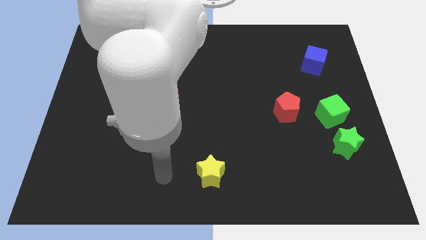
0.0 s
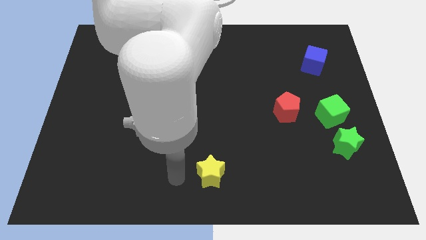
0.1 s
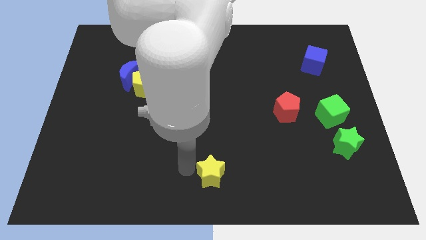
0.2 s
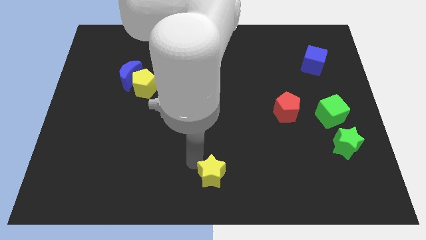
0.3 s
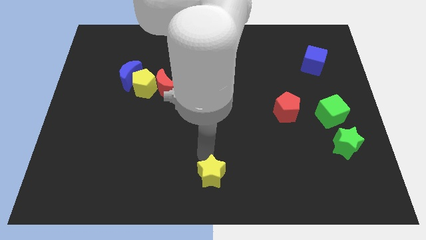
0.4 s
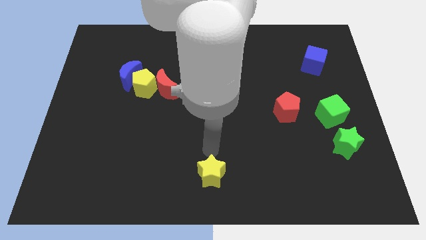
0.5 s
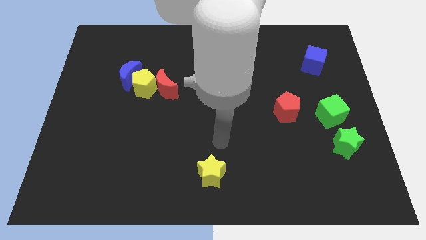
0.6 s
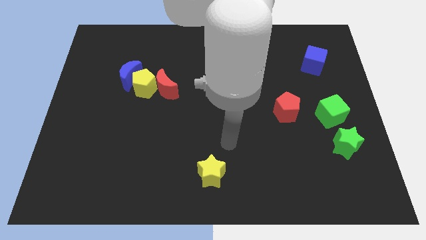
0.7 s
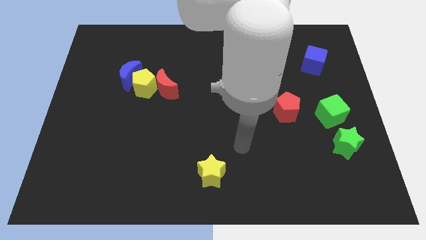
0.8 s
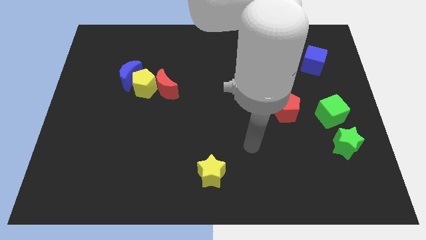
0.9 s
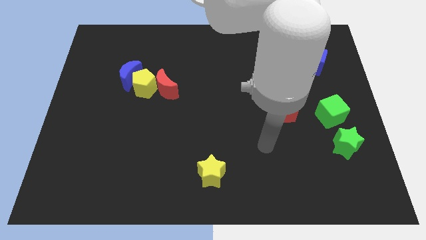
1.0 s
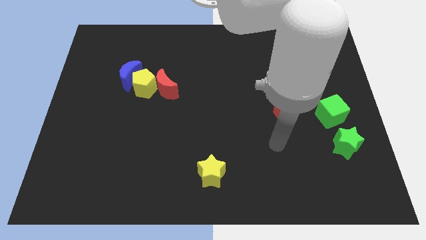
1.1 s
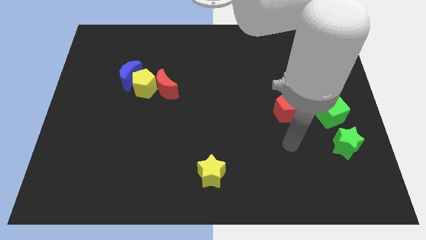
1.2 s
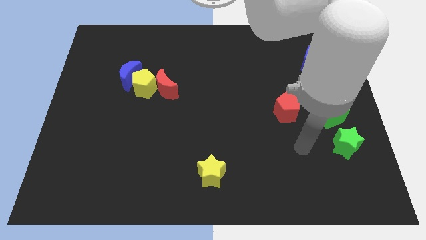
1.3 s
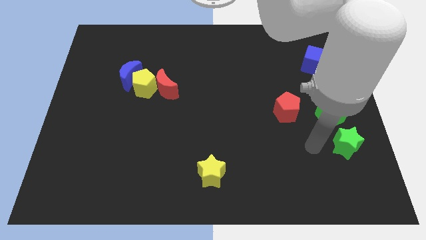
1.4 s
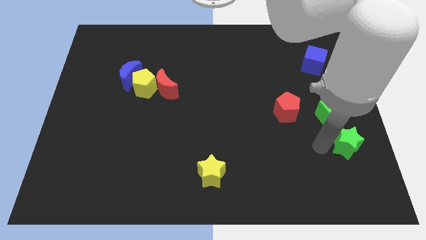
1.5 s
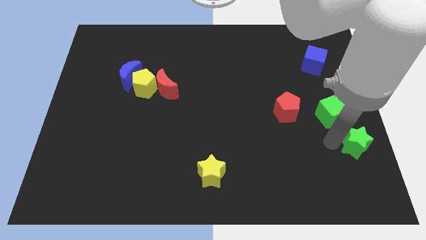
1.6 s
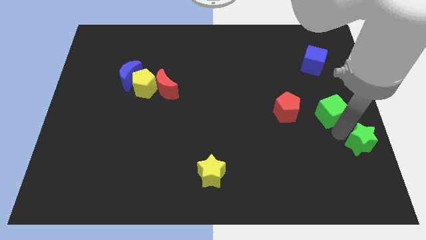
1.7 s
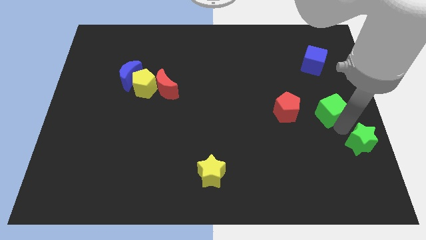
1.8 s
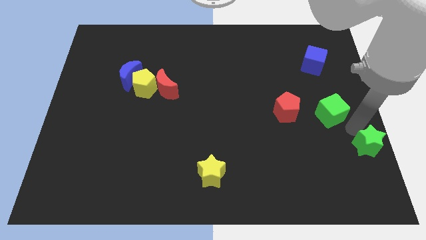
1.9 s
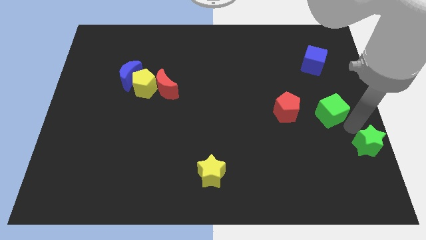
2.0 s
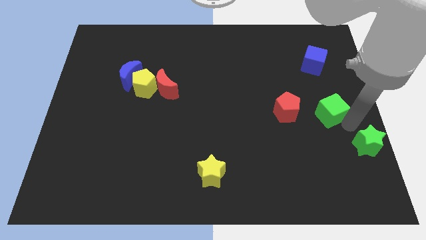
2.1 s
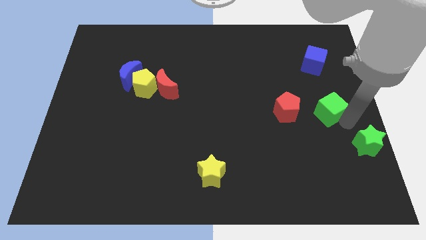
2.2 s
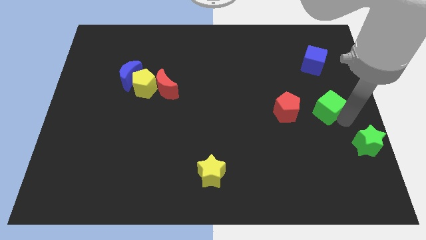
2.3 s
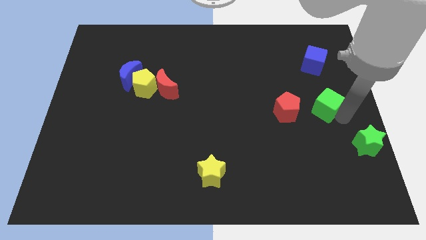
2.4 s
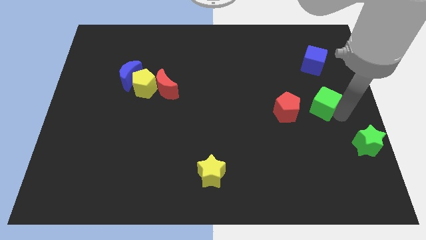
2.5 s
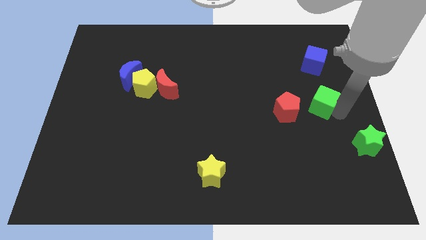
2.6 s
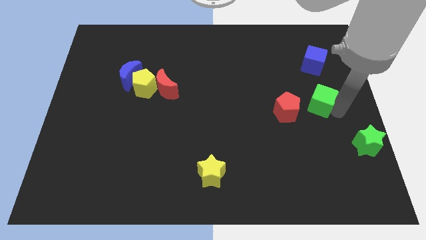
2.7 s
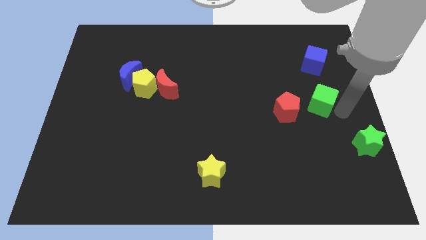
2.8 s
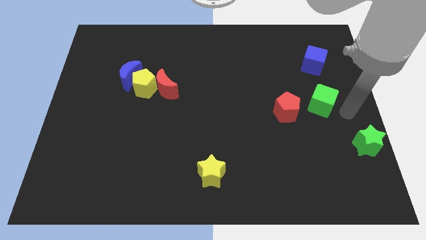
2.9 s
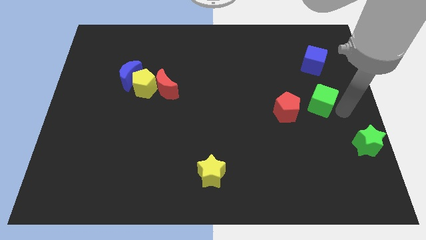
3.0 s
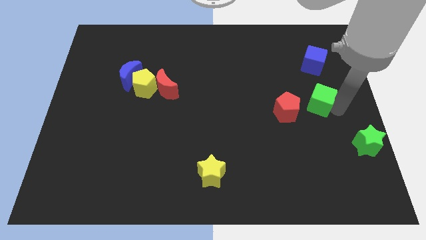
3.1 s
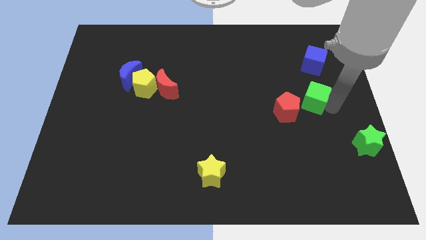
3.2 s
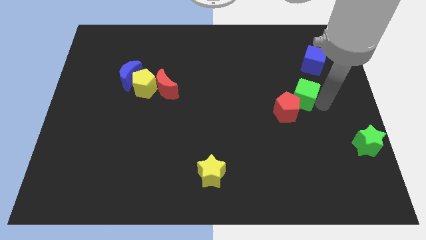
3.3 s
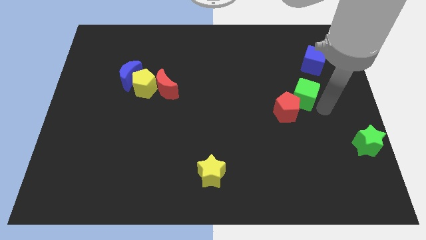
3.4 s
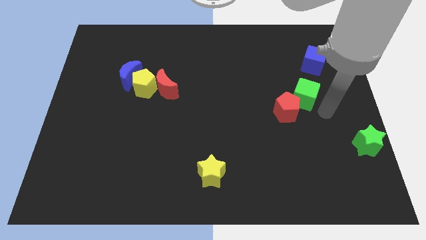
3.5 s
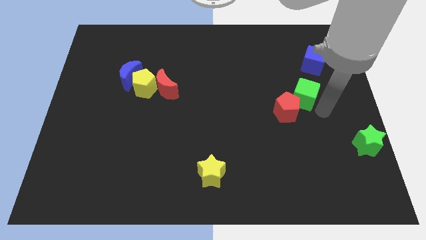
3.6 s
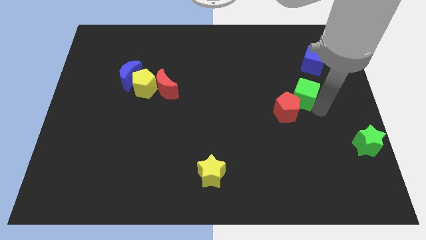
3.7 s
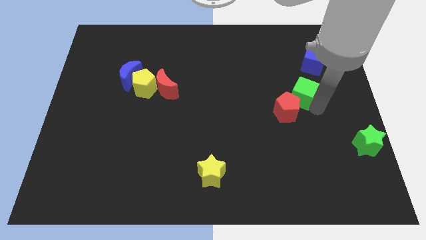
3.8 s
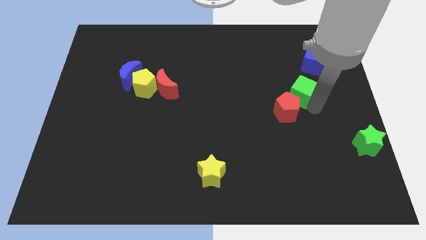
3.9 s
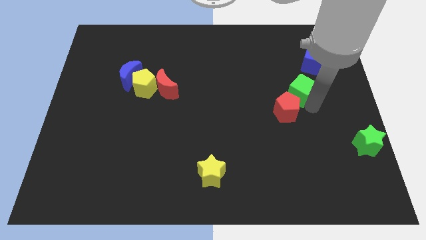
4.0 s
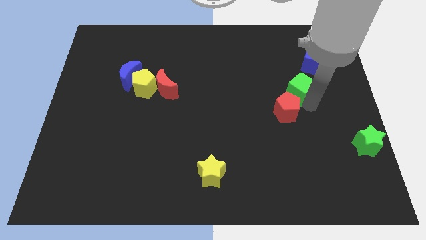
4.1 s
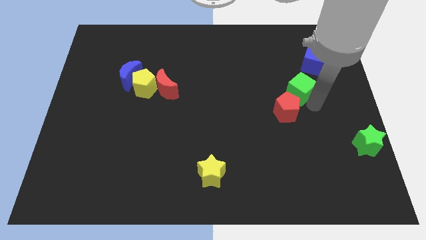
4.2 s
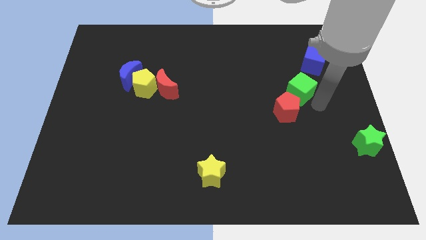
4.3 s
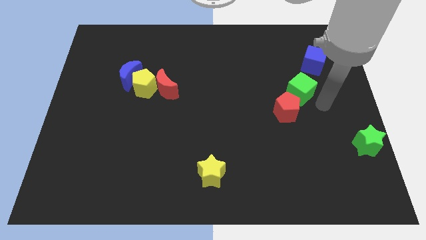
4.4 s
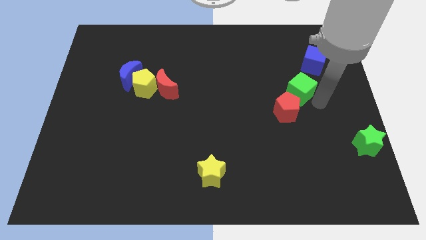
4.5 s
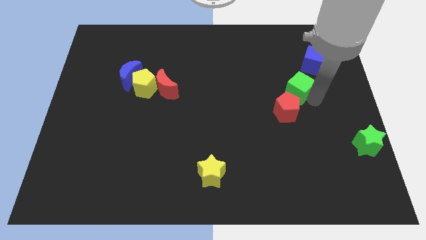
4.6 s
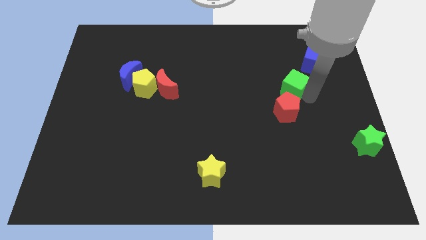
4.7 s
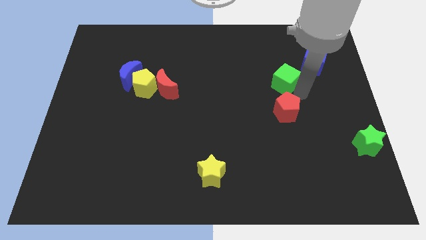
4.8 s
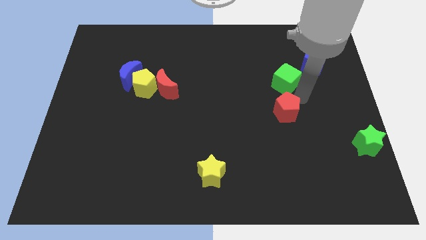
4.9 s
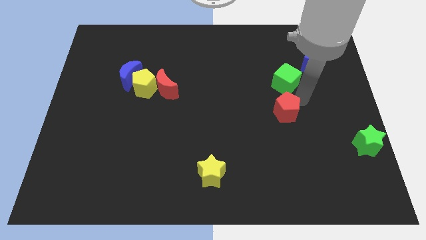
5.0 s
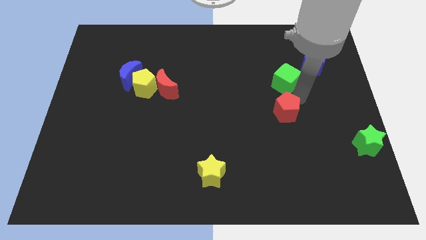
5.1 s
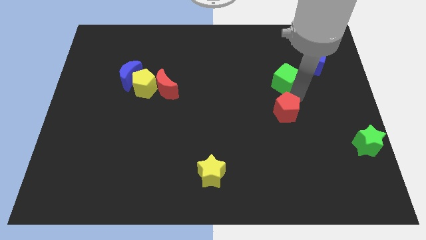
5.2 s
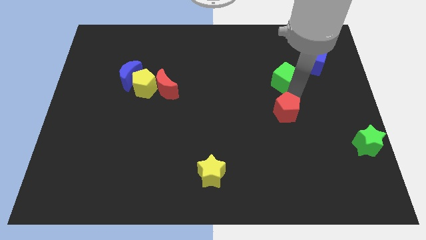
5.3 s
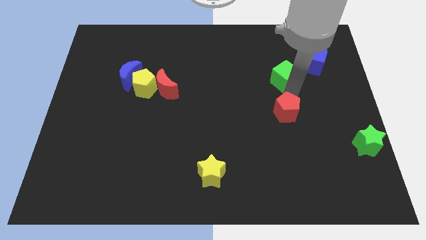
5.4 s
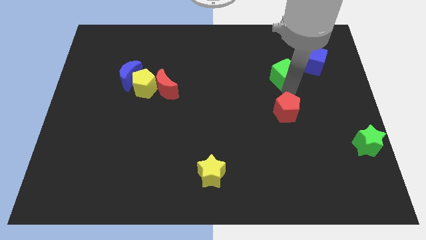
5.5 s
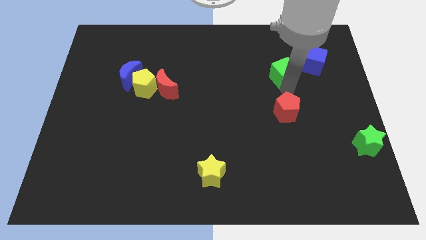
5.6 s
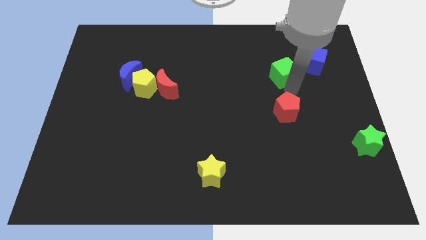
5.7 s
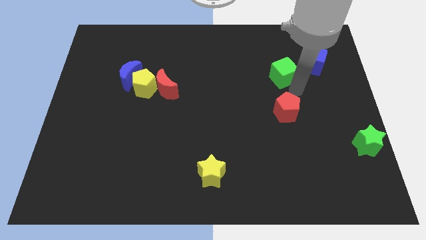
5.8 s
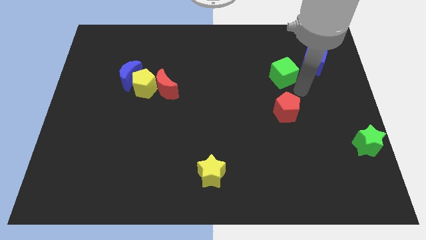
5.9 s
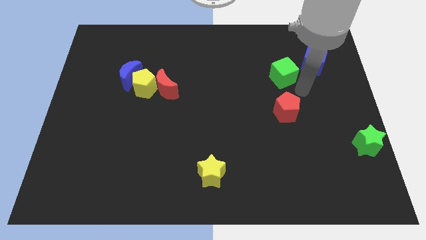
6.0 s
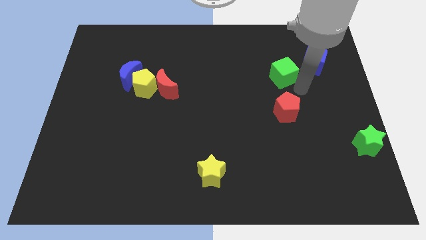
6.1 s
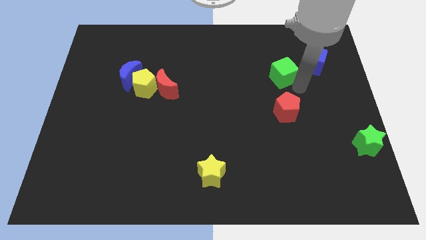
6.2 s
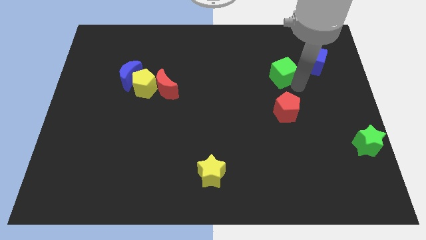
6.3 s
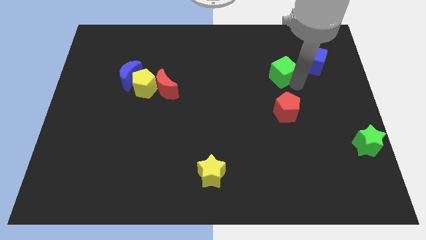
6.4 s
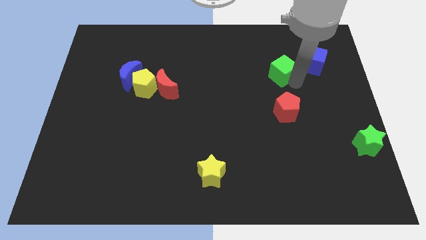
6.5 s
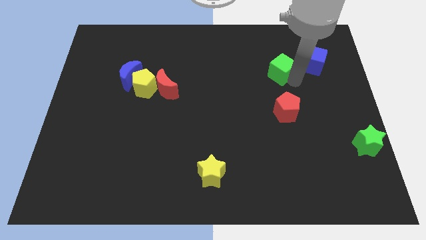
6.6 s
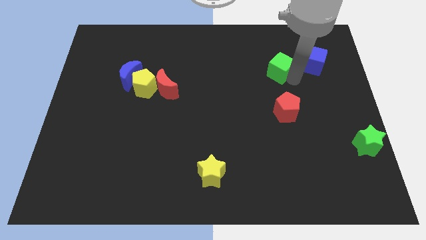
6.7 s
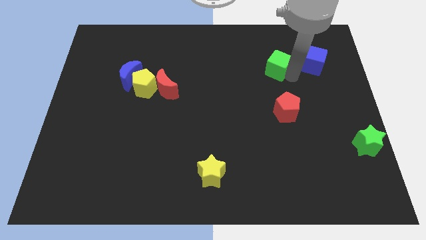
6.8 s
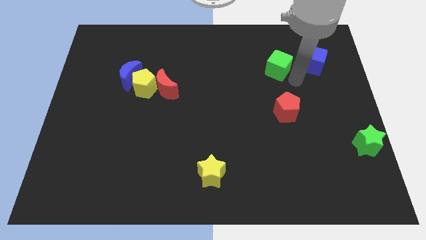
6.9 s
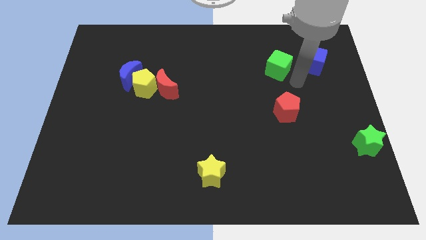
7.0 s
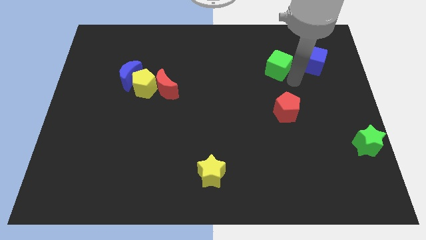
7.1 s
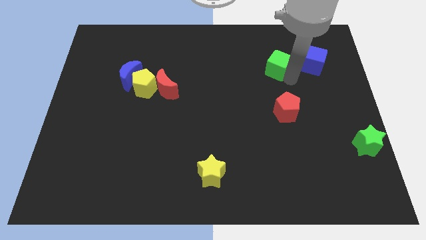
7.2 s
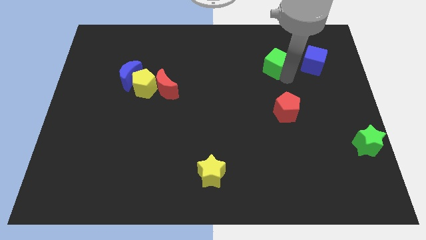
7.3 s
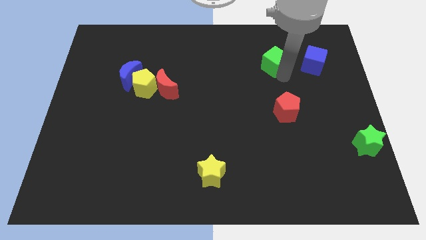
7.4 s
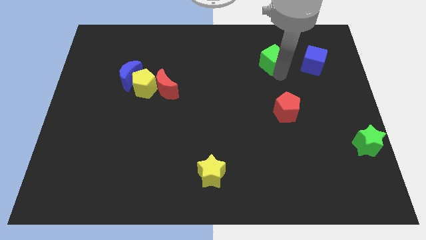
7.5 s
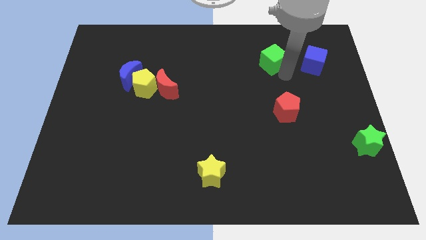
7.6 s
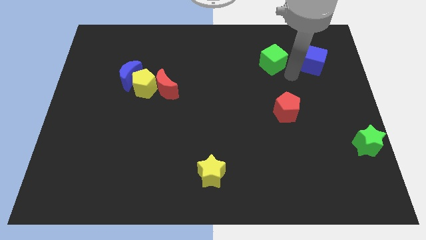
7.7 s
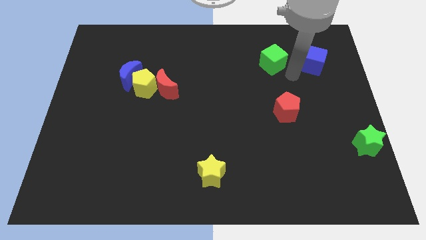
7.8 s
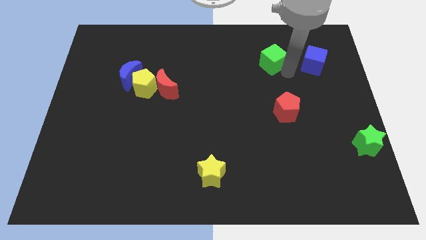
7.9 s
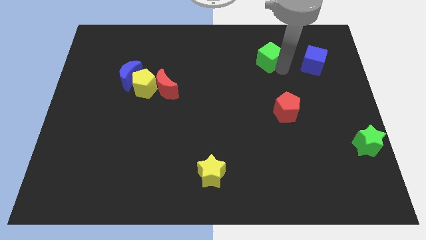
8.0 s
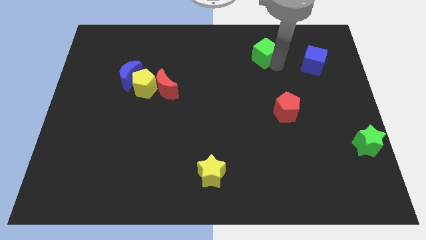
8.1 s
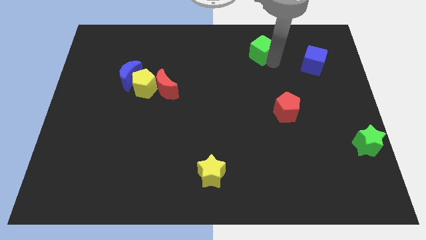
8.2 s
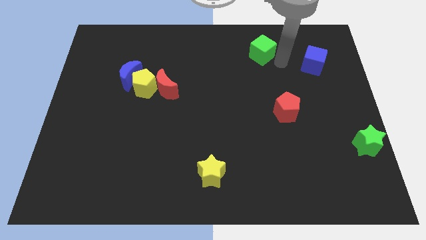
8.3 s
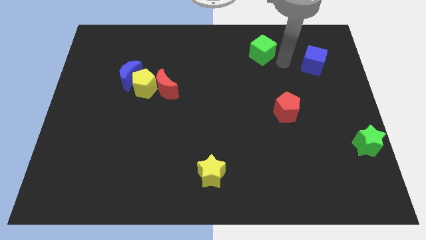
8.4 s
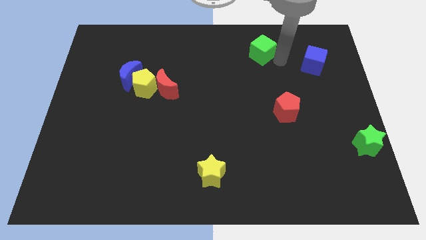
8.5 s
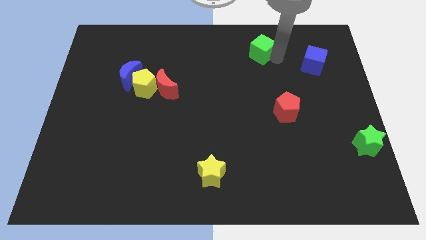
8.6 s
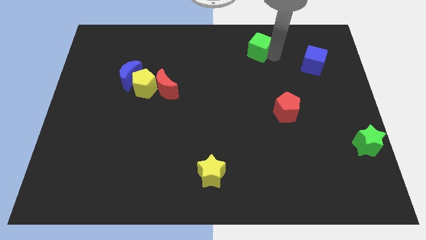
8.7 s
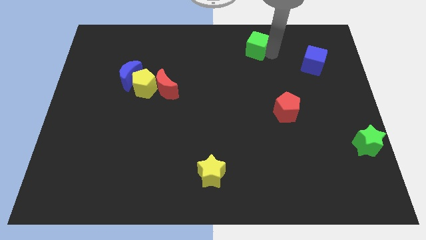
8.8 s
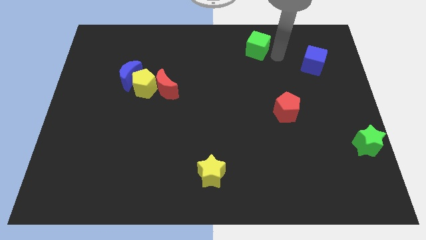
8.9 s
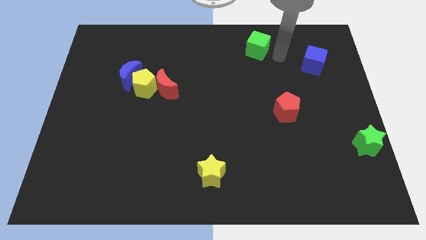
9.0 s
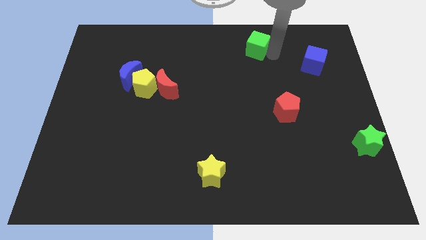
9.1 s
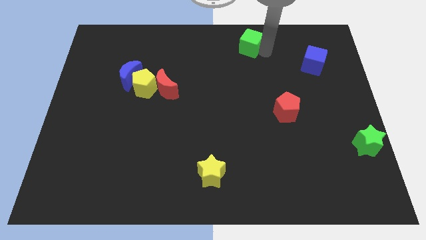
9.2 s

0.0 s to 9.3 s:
put the green cube to the top
